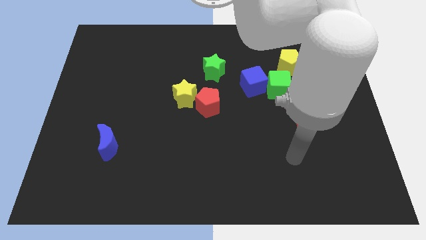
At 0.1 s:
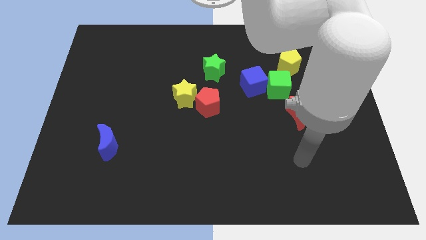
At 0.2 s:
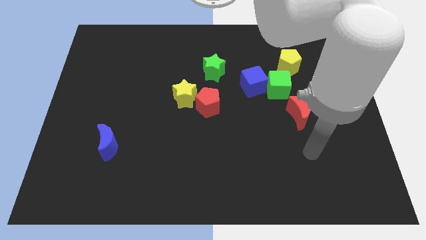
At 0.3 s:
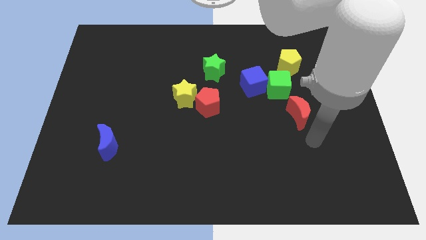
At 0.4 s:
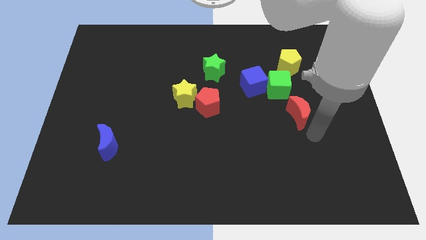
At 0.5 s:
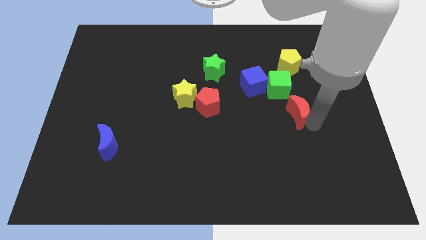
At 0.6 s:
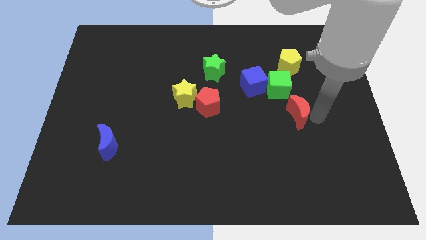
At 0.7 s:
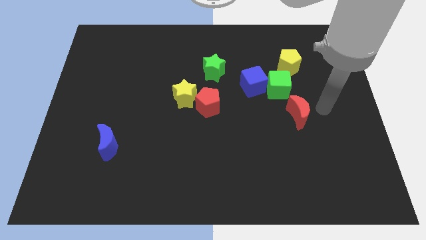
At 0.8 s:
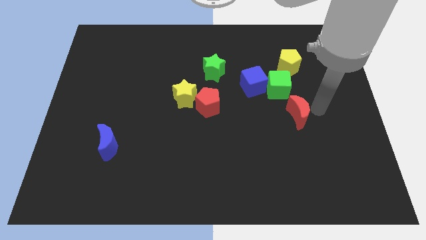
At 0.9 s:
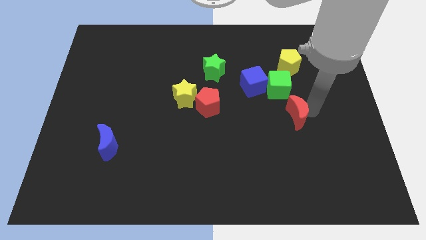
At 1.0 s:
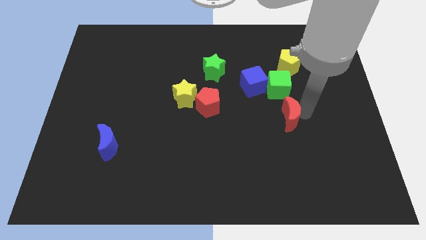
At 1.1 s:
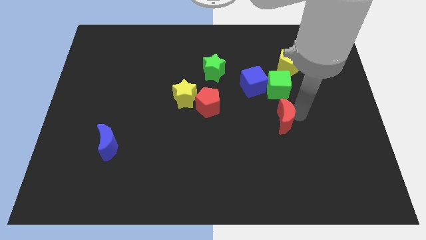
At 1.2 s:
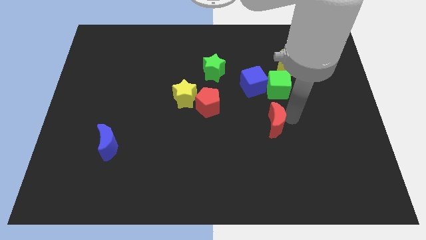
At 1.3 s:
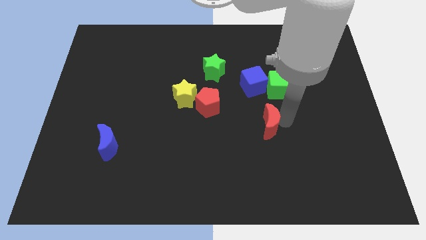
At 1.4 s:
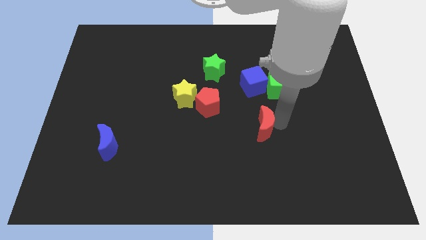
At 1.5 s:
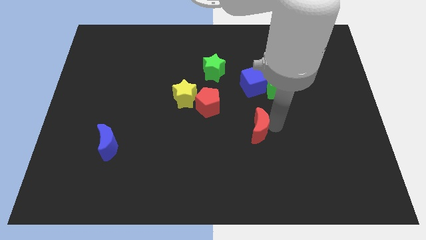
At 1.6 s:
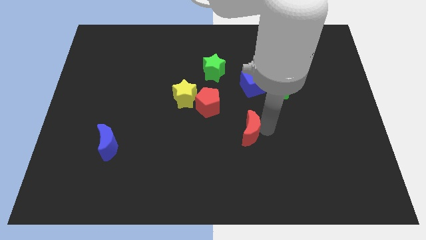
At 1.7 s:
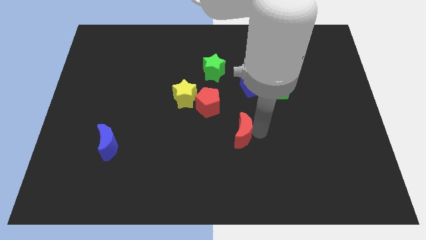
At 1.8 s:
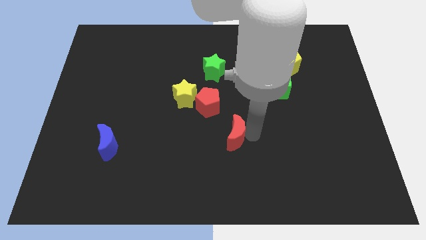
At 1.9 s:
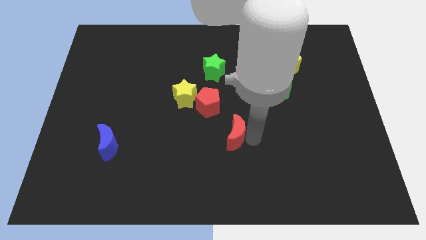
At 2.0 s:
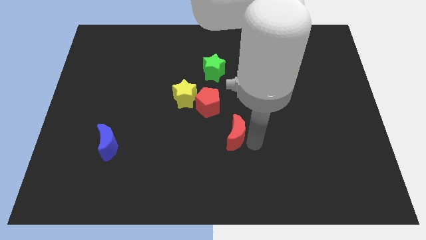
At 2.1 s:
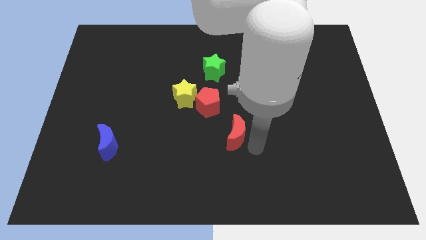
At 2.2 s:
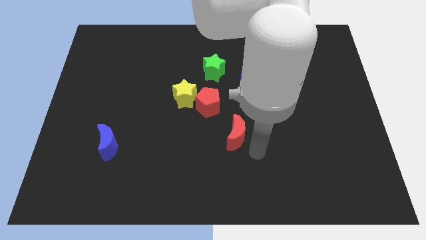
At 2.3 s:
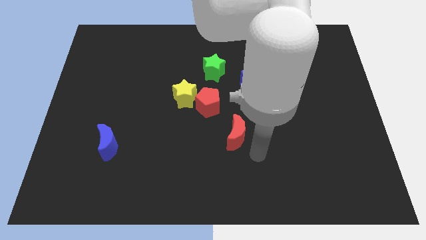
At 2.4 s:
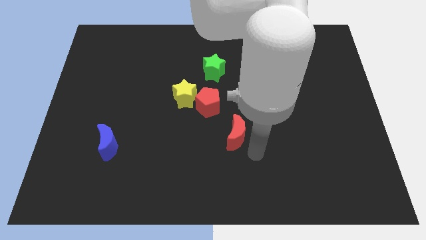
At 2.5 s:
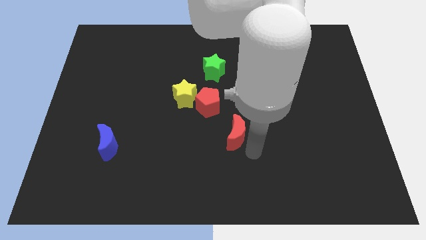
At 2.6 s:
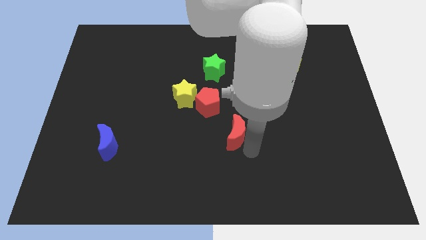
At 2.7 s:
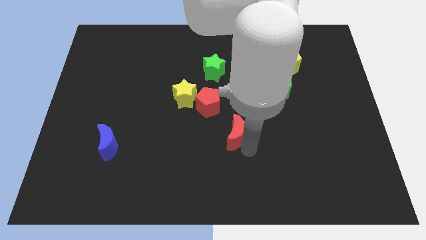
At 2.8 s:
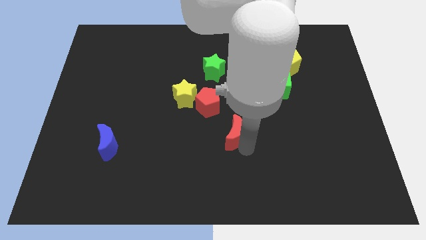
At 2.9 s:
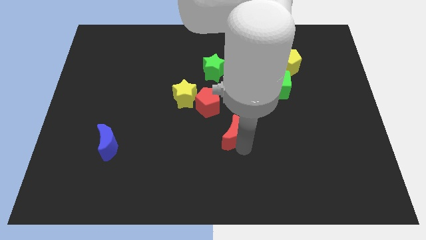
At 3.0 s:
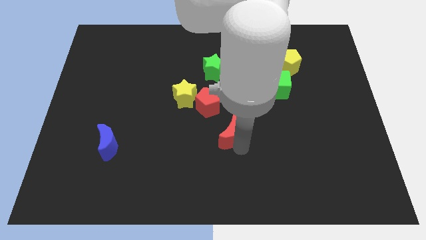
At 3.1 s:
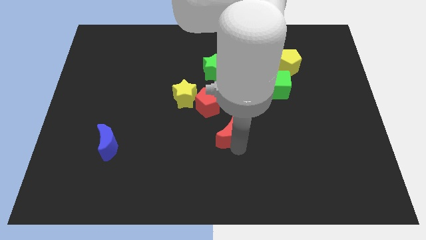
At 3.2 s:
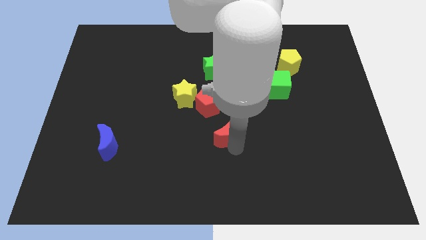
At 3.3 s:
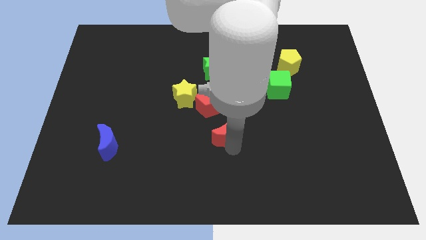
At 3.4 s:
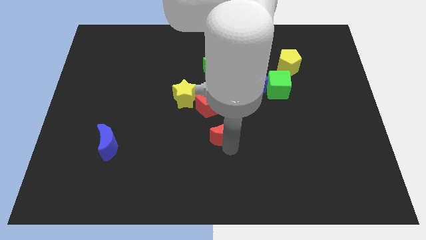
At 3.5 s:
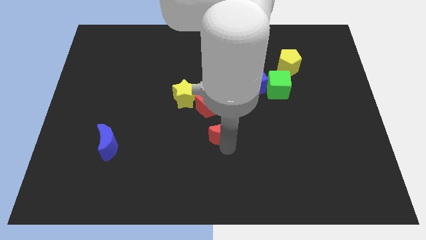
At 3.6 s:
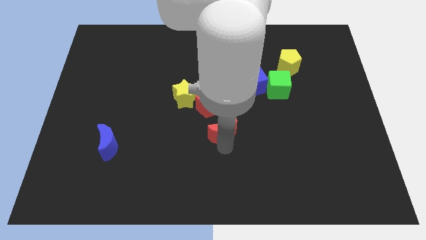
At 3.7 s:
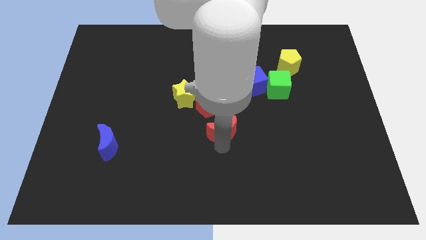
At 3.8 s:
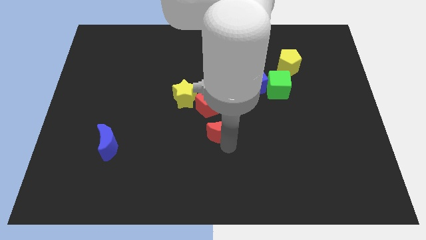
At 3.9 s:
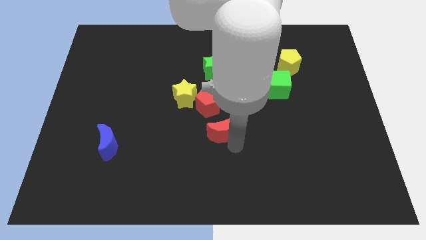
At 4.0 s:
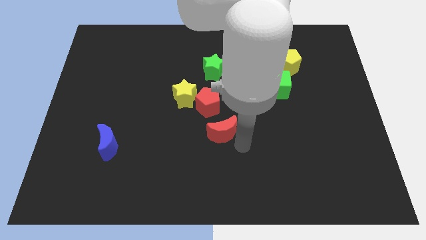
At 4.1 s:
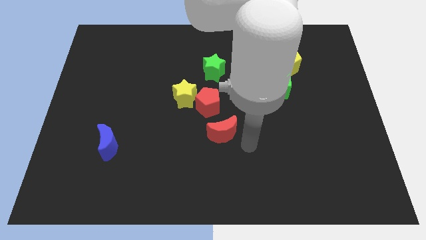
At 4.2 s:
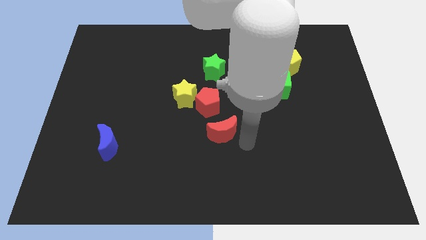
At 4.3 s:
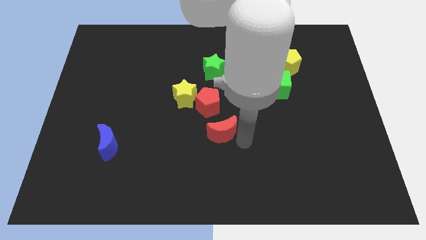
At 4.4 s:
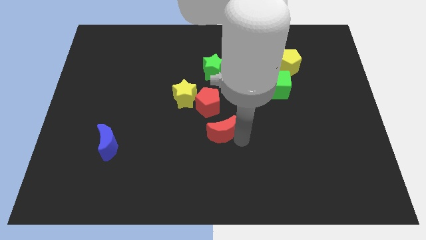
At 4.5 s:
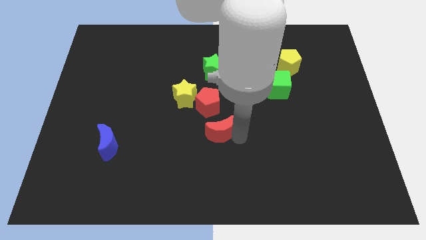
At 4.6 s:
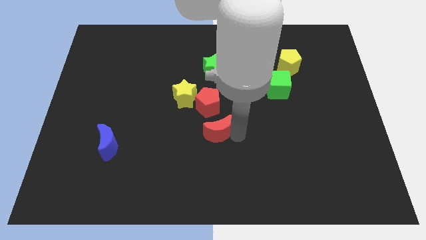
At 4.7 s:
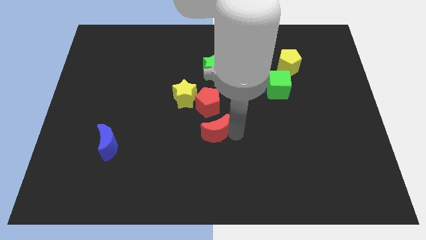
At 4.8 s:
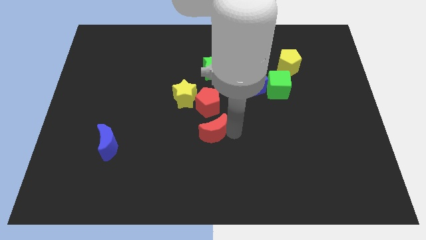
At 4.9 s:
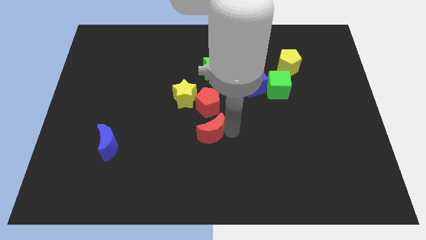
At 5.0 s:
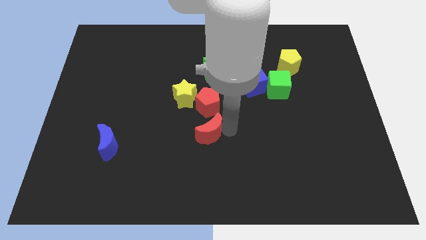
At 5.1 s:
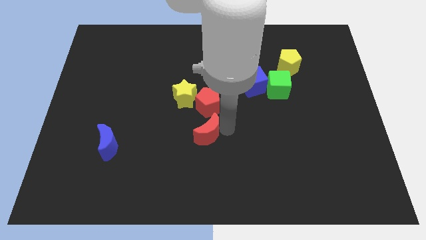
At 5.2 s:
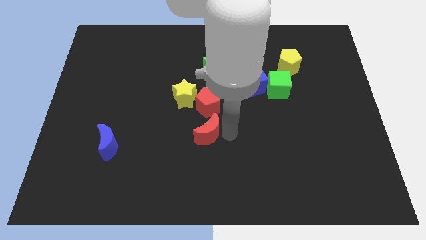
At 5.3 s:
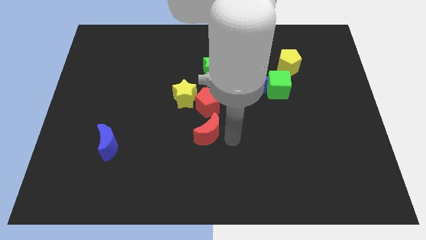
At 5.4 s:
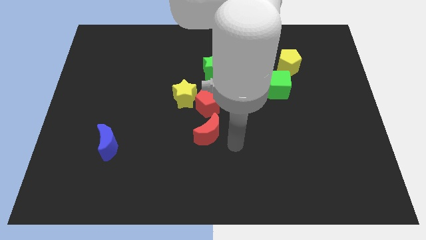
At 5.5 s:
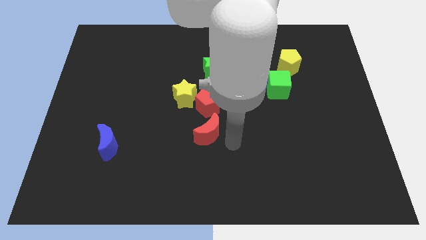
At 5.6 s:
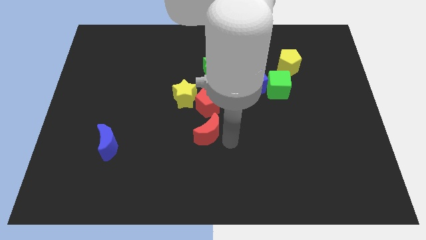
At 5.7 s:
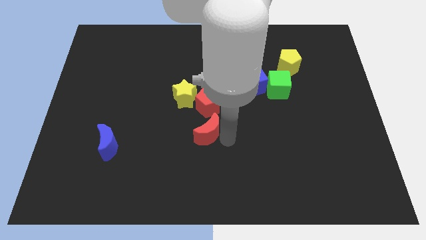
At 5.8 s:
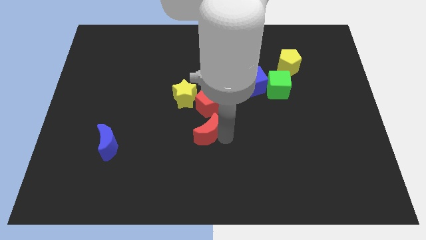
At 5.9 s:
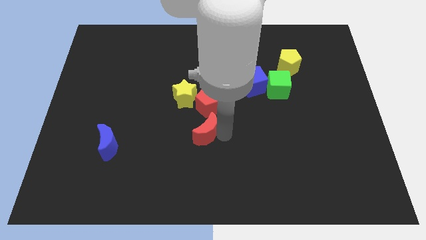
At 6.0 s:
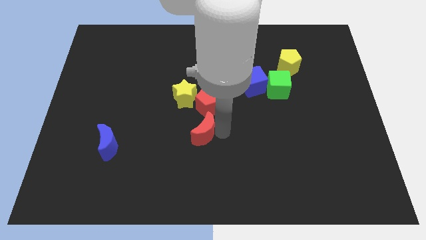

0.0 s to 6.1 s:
push the red moon to the bottom left of the red pentagon

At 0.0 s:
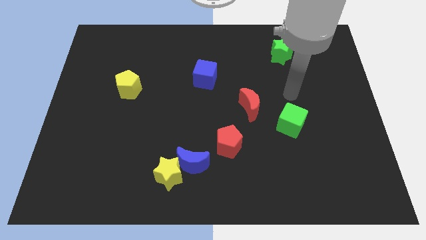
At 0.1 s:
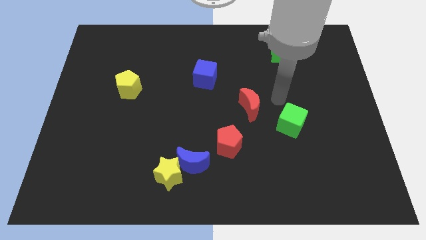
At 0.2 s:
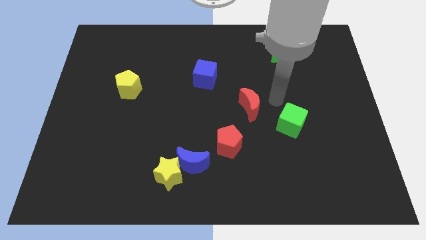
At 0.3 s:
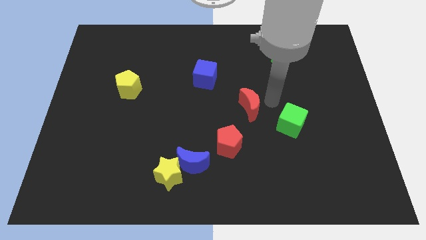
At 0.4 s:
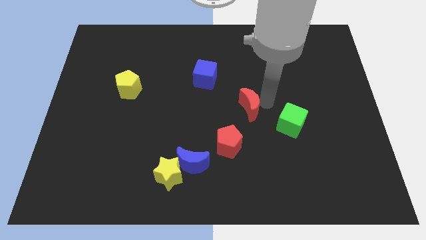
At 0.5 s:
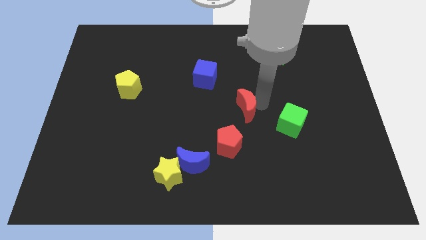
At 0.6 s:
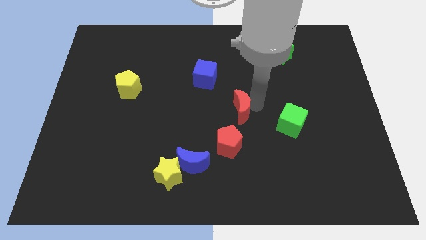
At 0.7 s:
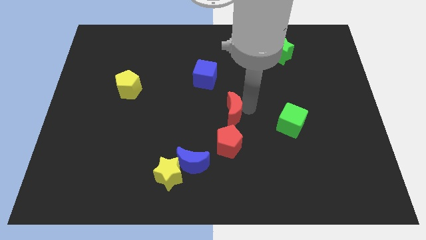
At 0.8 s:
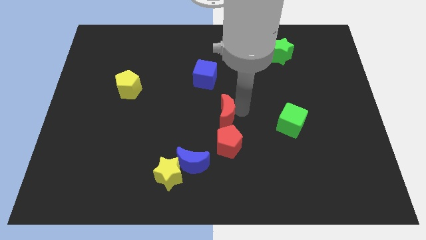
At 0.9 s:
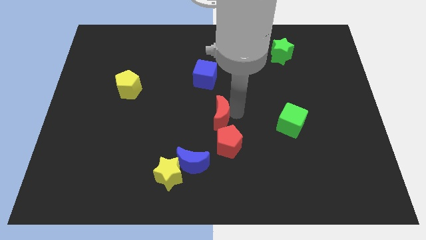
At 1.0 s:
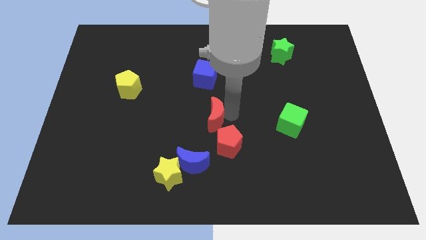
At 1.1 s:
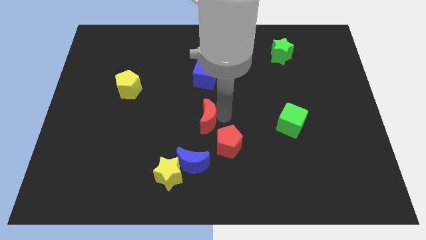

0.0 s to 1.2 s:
put the red moon to the top side of the blue moon
